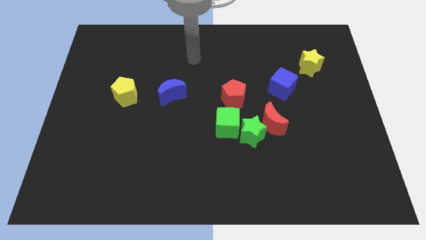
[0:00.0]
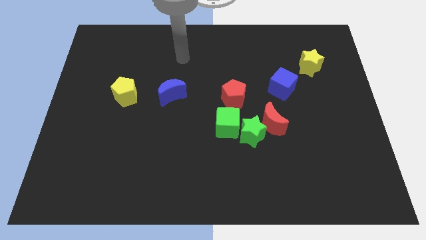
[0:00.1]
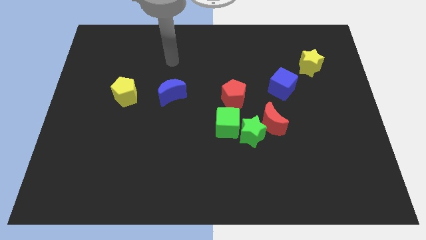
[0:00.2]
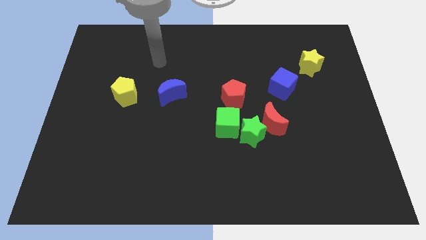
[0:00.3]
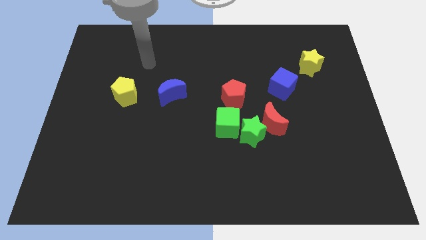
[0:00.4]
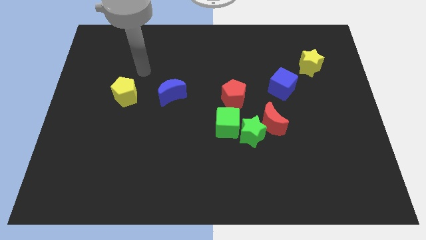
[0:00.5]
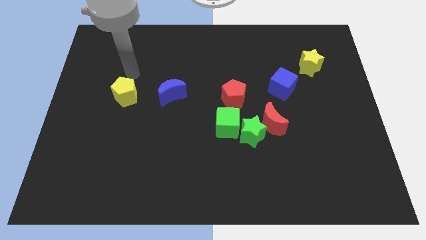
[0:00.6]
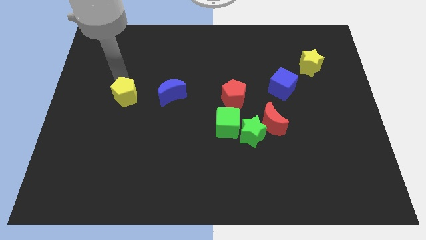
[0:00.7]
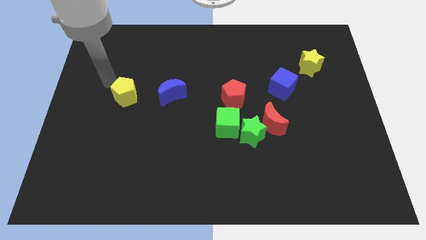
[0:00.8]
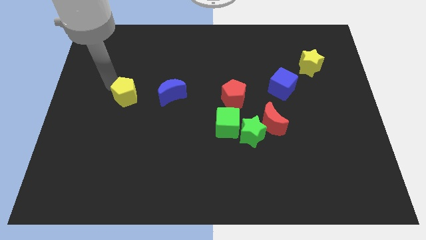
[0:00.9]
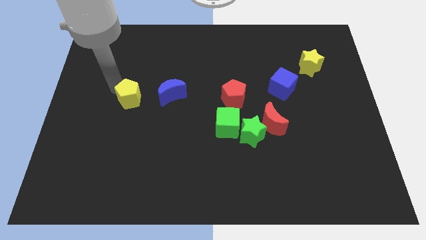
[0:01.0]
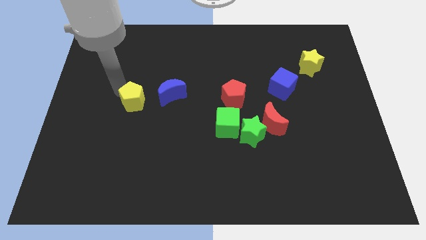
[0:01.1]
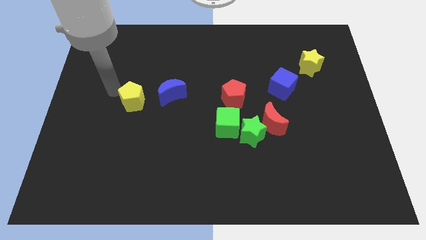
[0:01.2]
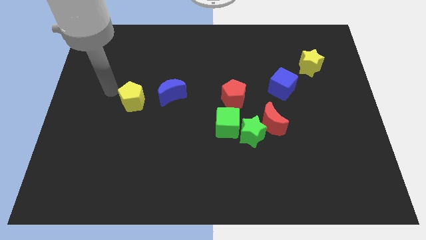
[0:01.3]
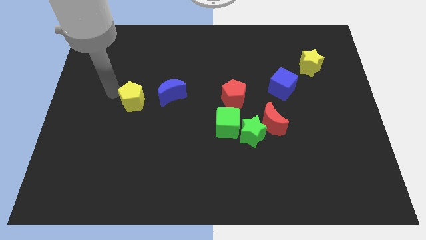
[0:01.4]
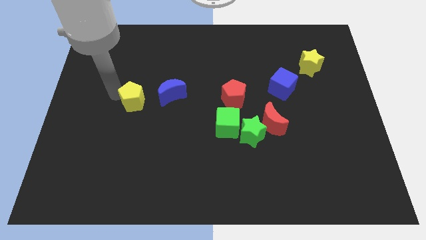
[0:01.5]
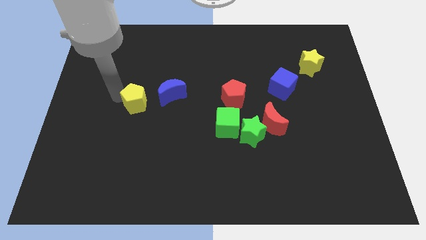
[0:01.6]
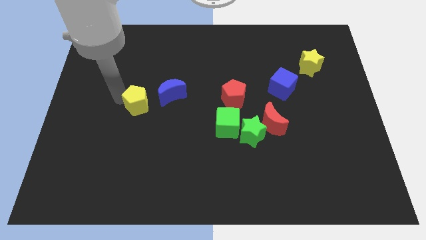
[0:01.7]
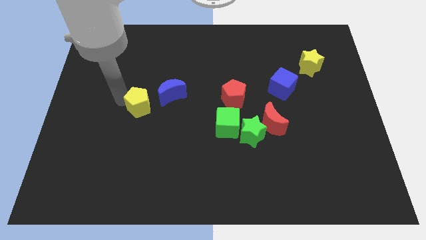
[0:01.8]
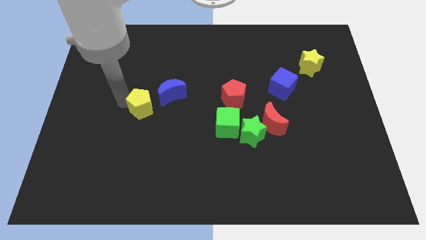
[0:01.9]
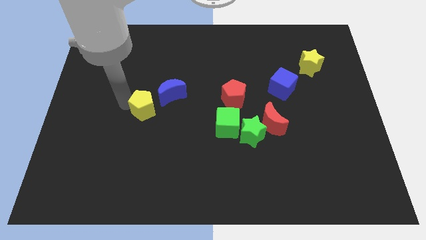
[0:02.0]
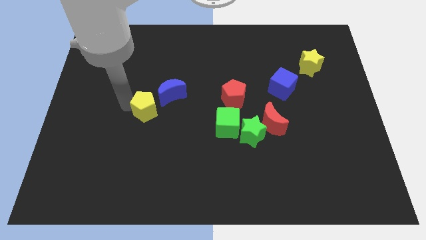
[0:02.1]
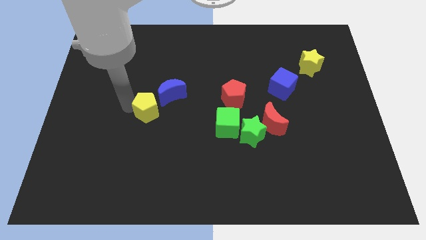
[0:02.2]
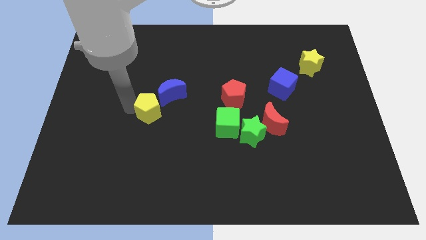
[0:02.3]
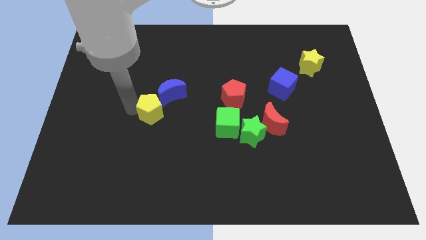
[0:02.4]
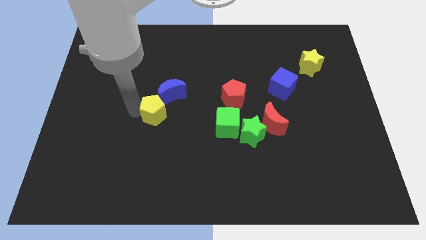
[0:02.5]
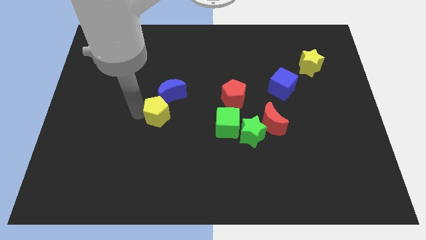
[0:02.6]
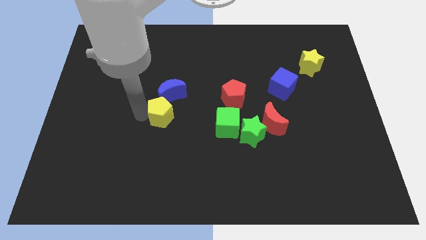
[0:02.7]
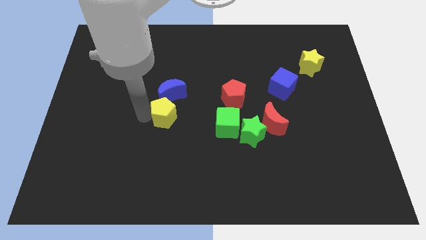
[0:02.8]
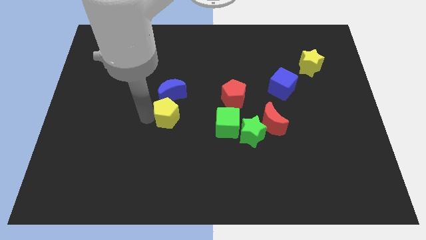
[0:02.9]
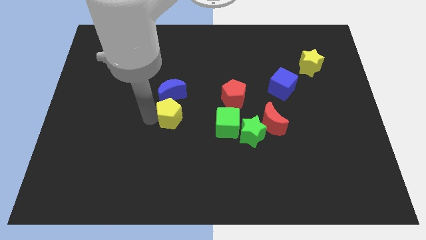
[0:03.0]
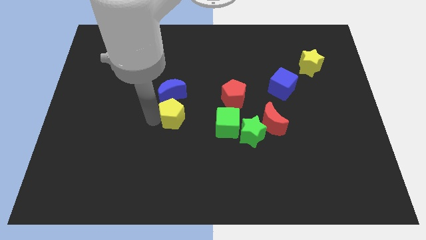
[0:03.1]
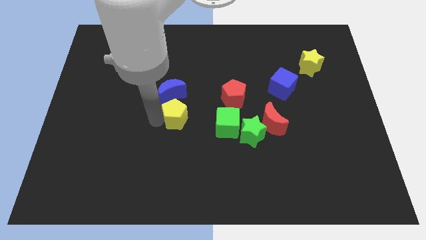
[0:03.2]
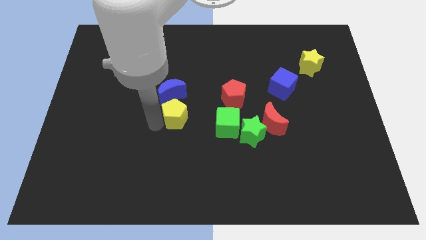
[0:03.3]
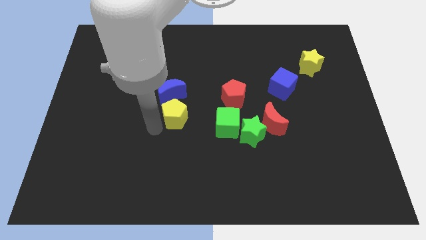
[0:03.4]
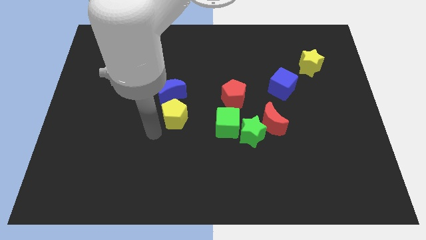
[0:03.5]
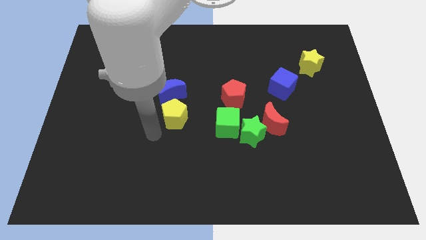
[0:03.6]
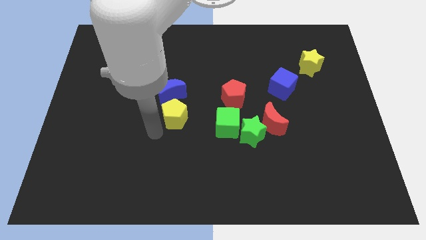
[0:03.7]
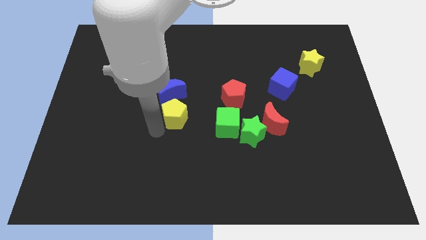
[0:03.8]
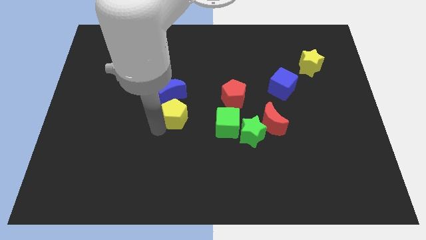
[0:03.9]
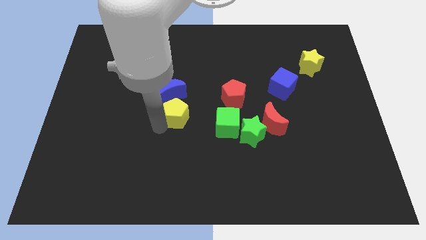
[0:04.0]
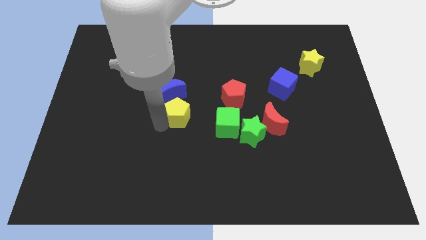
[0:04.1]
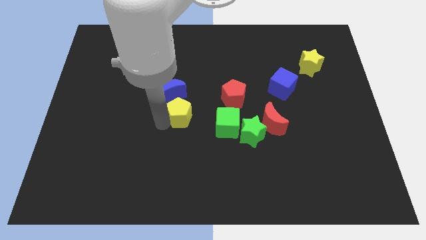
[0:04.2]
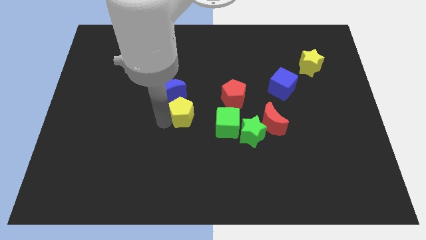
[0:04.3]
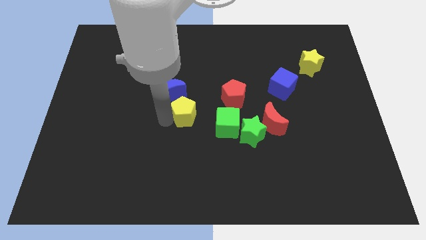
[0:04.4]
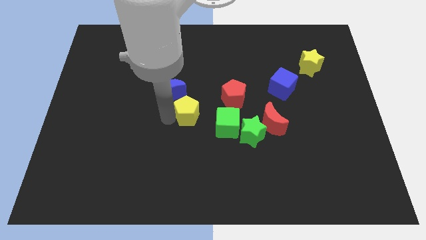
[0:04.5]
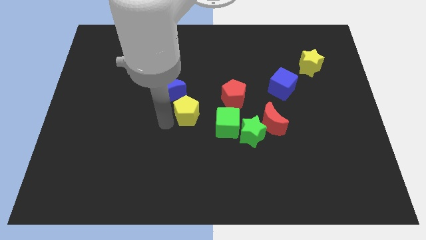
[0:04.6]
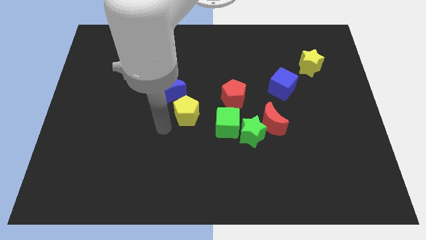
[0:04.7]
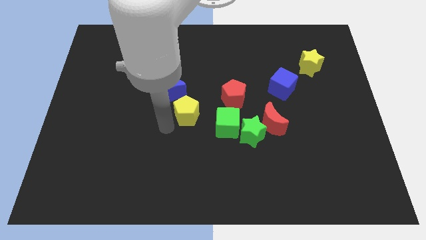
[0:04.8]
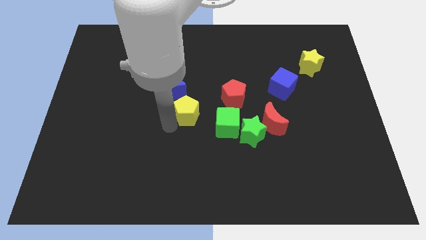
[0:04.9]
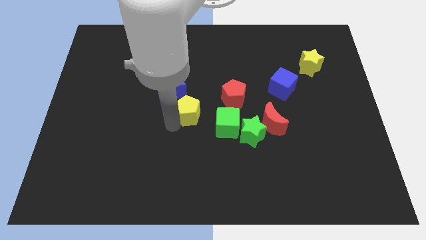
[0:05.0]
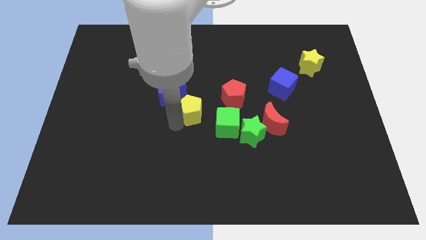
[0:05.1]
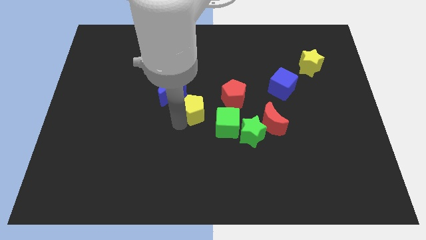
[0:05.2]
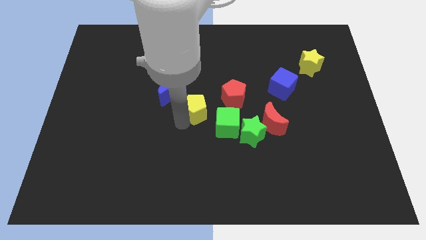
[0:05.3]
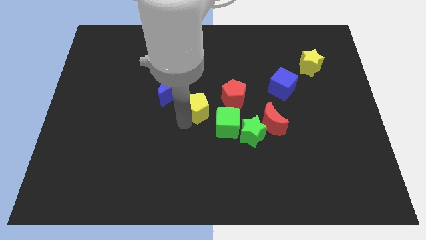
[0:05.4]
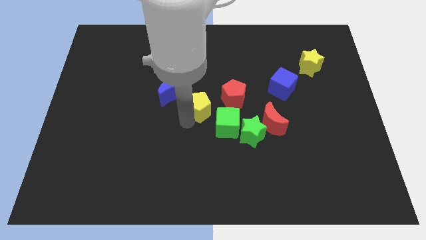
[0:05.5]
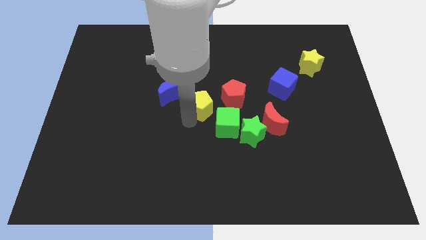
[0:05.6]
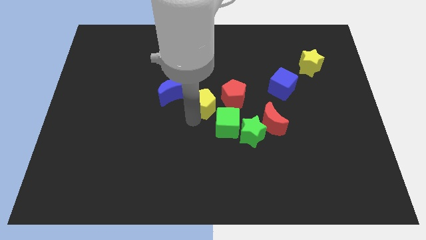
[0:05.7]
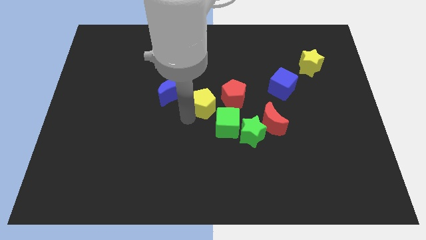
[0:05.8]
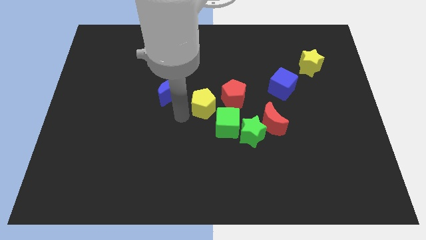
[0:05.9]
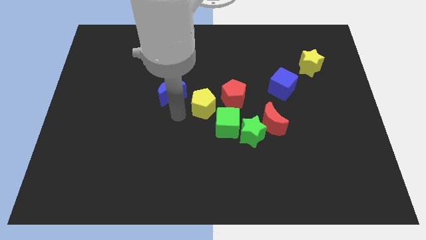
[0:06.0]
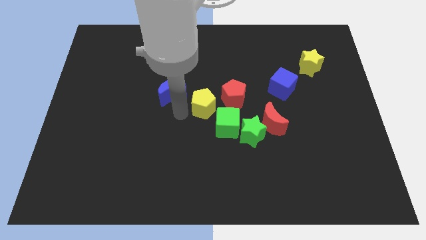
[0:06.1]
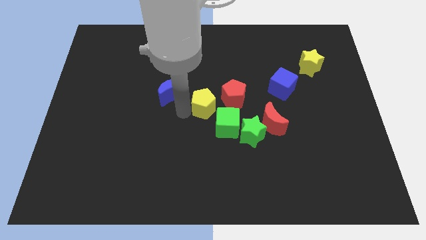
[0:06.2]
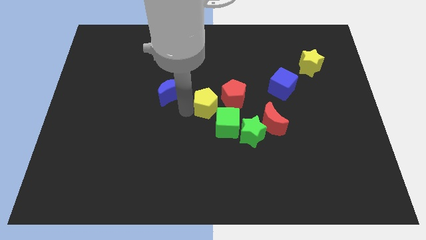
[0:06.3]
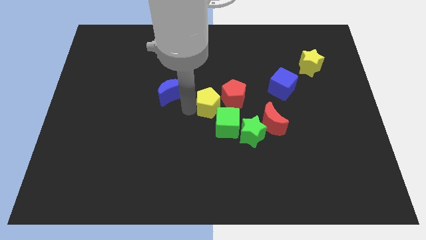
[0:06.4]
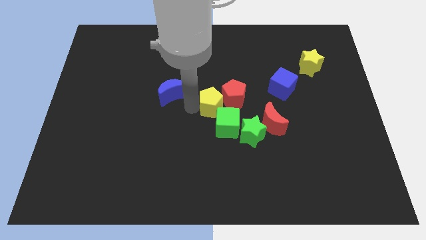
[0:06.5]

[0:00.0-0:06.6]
slide the yellow pentagon towards the red pentagon

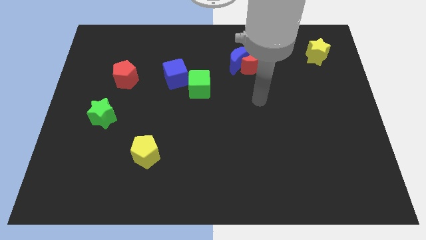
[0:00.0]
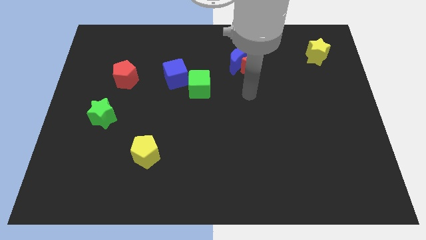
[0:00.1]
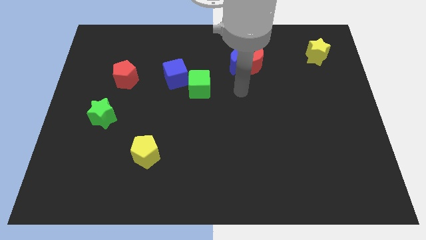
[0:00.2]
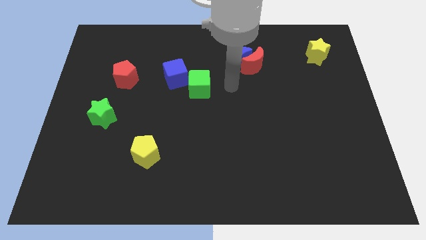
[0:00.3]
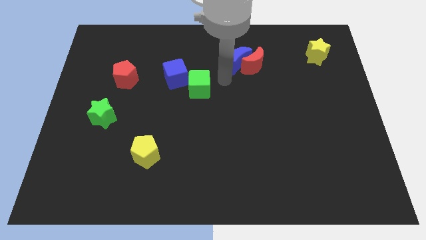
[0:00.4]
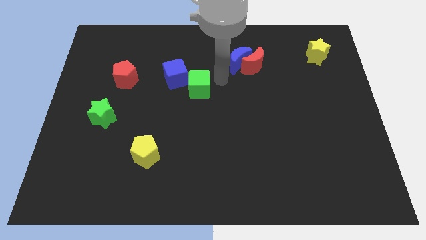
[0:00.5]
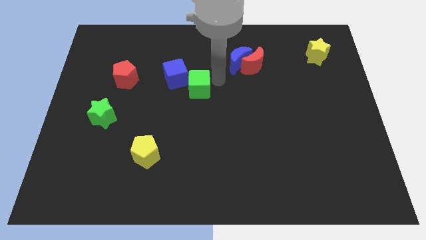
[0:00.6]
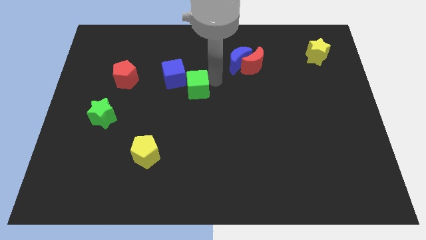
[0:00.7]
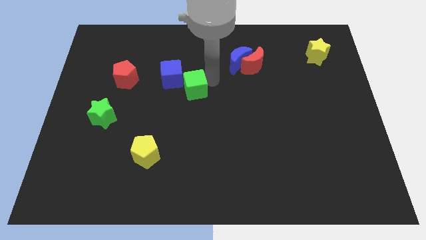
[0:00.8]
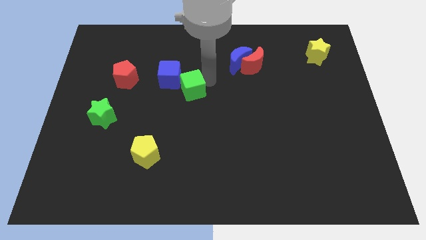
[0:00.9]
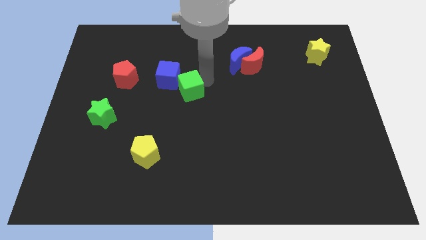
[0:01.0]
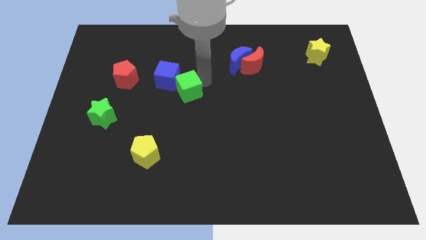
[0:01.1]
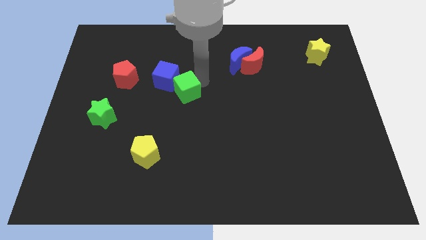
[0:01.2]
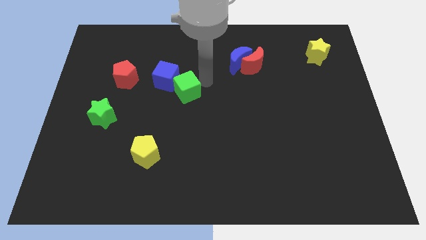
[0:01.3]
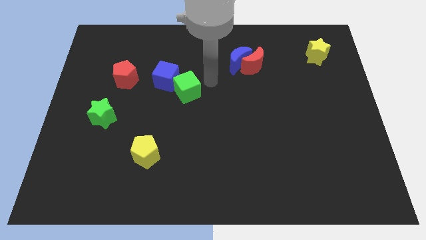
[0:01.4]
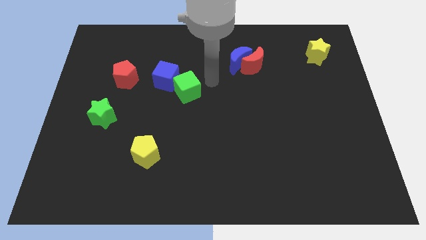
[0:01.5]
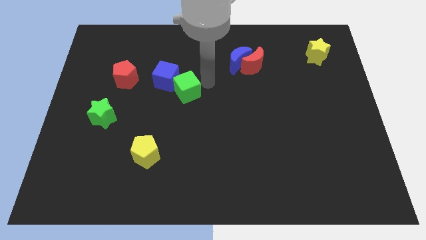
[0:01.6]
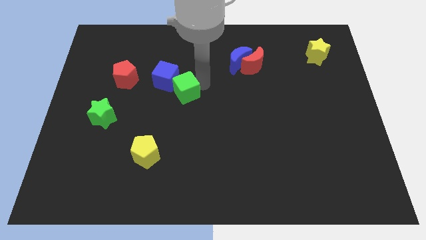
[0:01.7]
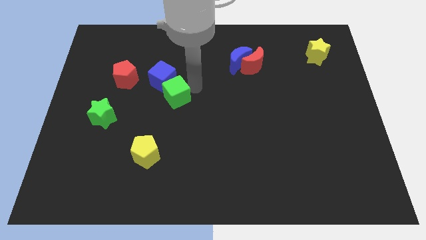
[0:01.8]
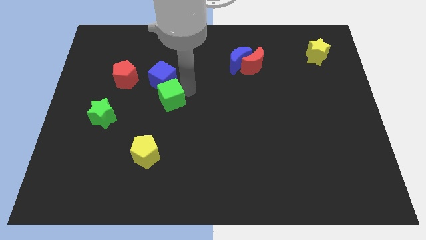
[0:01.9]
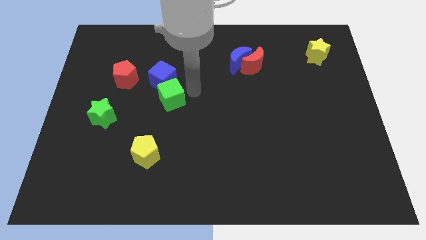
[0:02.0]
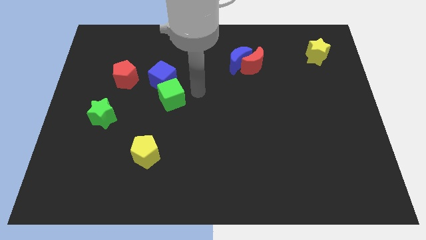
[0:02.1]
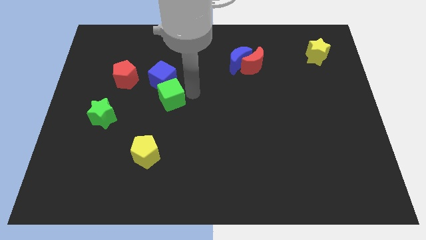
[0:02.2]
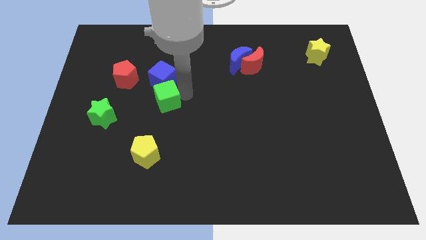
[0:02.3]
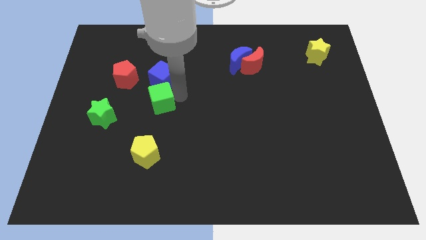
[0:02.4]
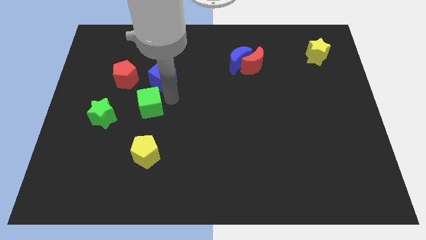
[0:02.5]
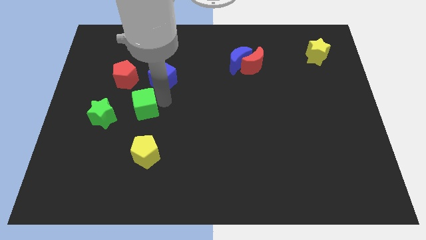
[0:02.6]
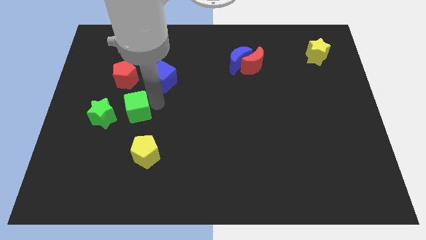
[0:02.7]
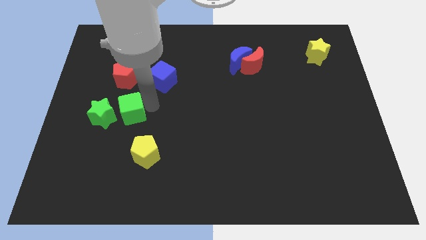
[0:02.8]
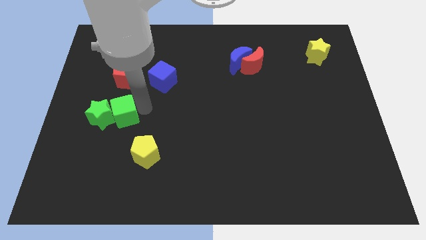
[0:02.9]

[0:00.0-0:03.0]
move the green cube to the green star
